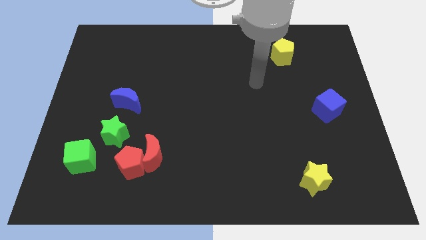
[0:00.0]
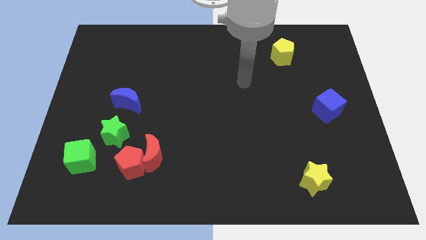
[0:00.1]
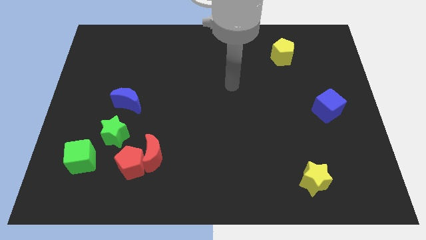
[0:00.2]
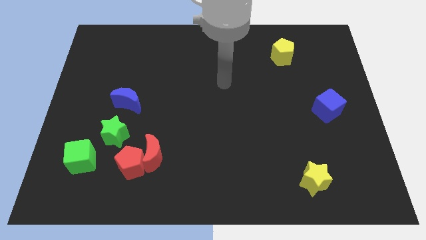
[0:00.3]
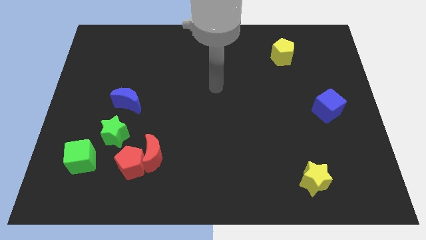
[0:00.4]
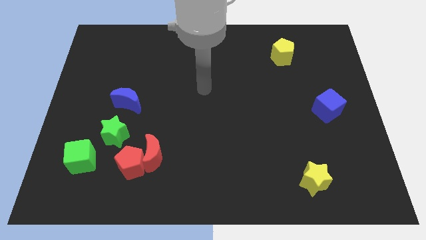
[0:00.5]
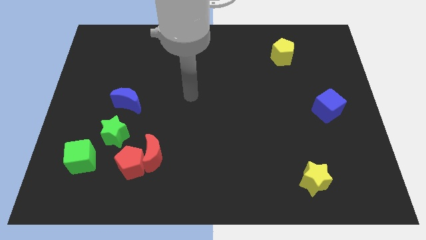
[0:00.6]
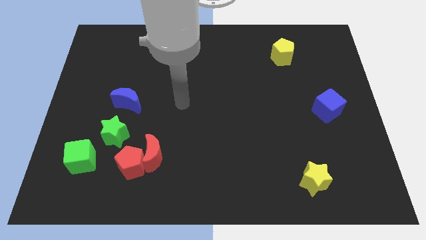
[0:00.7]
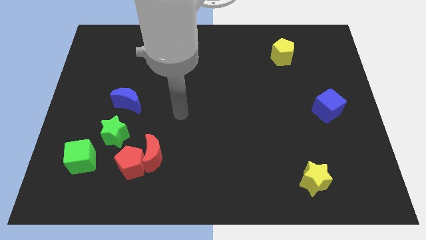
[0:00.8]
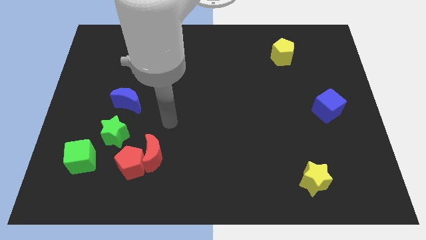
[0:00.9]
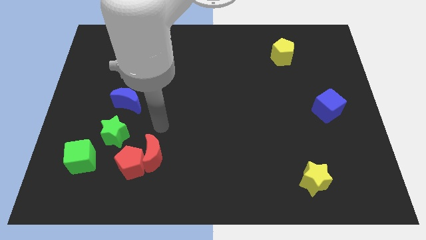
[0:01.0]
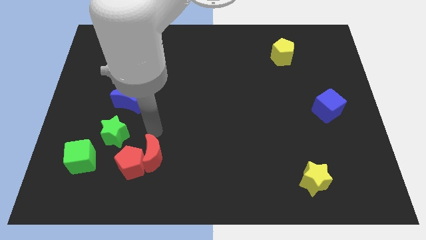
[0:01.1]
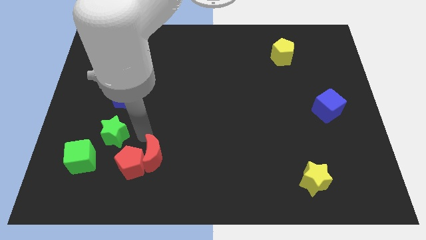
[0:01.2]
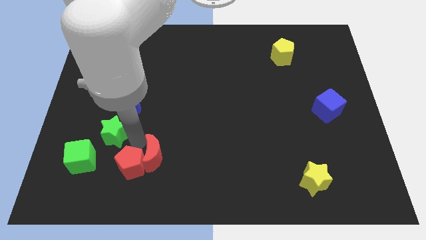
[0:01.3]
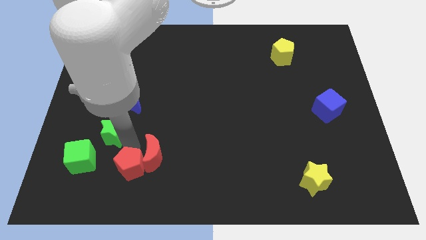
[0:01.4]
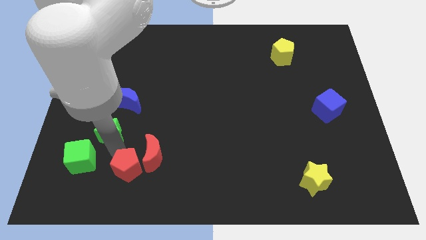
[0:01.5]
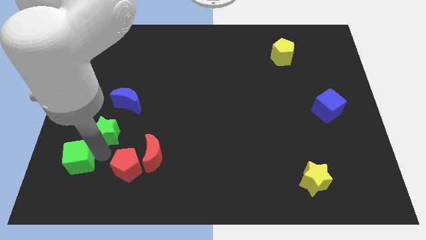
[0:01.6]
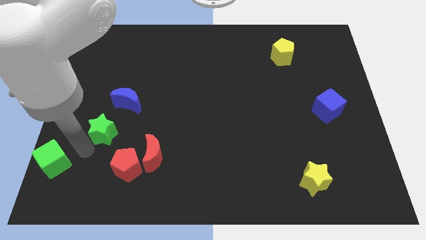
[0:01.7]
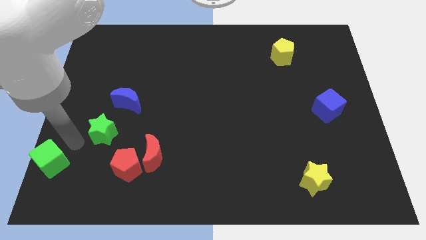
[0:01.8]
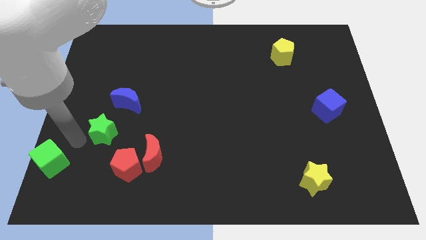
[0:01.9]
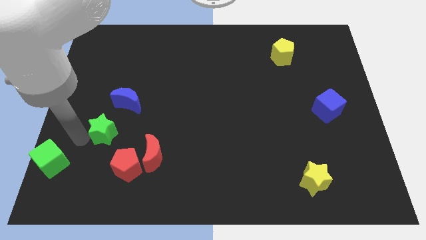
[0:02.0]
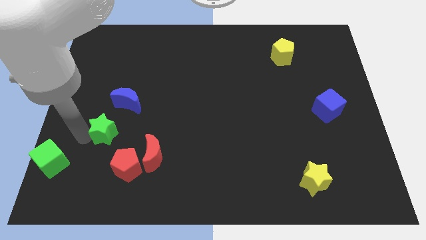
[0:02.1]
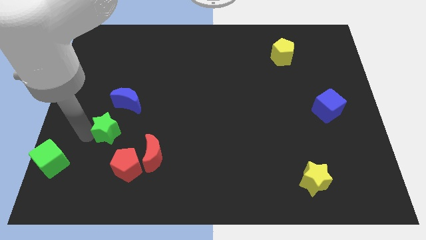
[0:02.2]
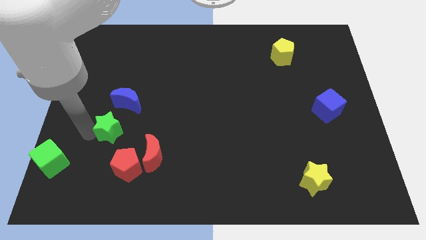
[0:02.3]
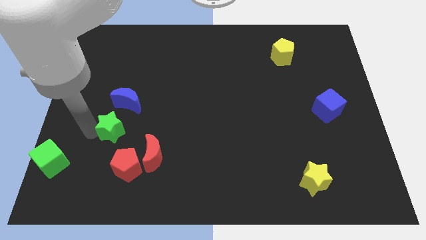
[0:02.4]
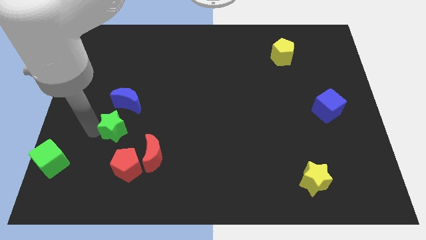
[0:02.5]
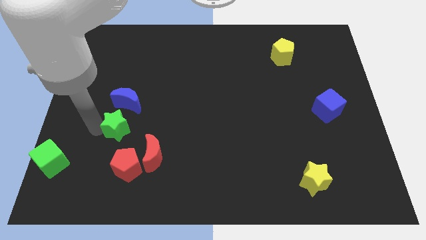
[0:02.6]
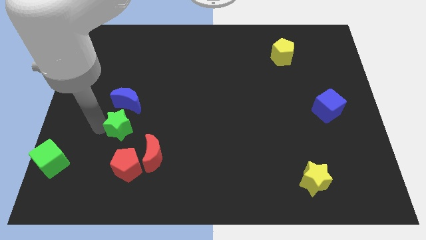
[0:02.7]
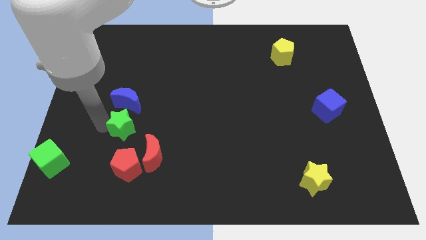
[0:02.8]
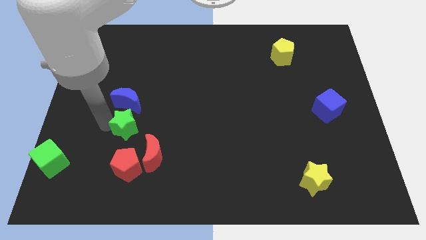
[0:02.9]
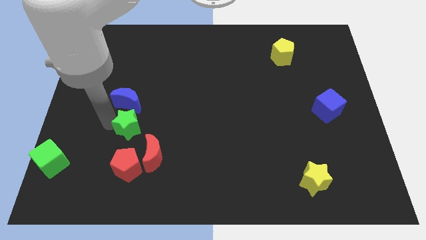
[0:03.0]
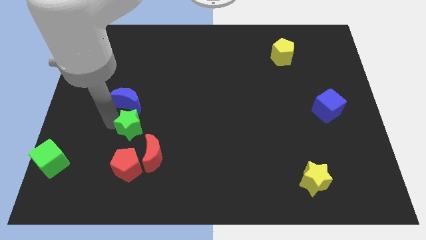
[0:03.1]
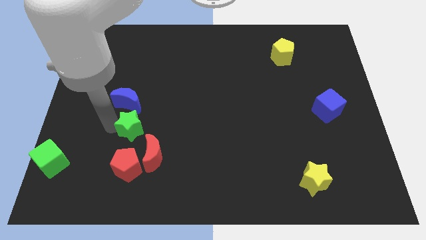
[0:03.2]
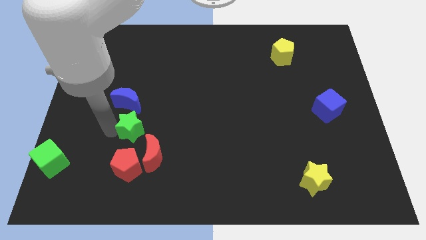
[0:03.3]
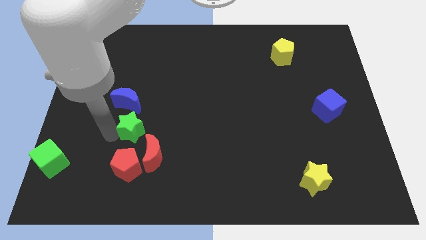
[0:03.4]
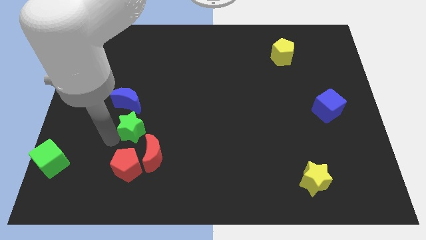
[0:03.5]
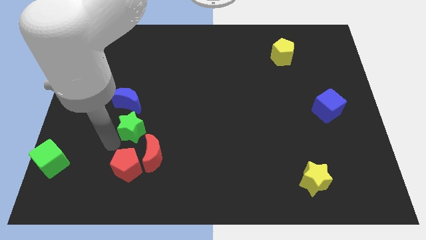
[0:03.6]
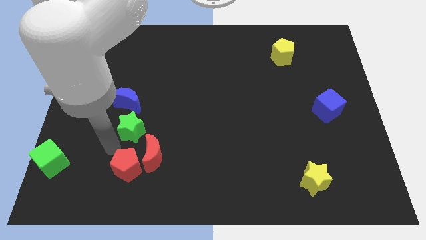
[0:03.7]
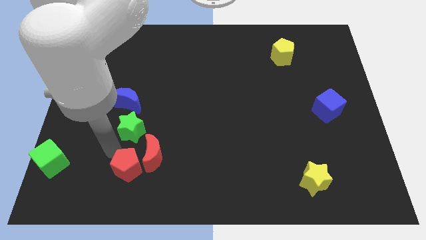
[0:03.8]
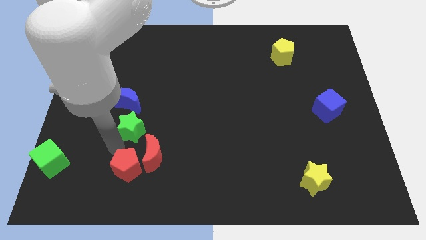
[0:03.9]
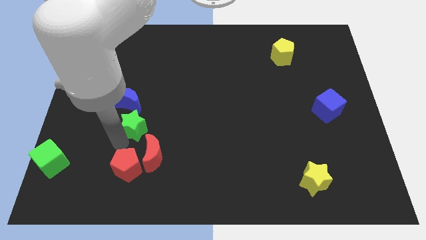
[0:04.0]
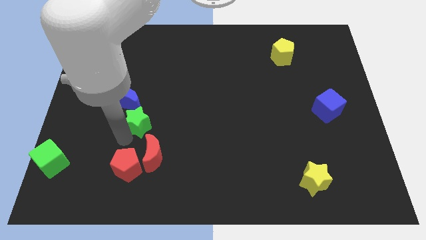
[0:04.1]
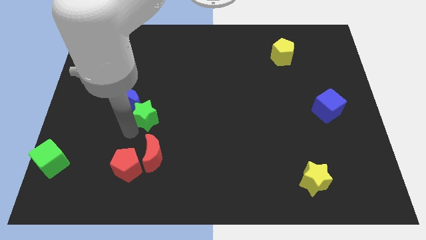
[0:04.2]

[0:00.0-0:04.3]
slightly push the green star up and to the right

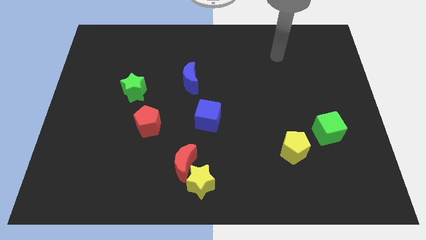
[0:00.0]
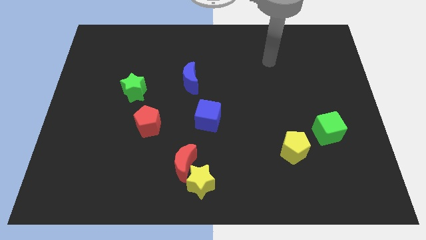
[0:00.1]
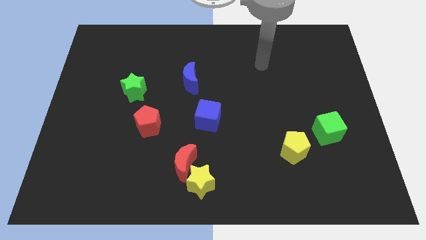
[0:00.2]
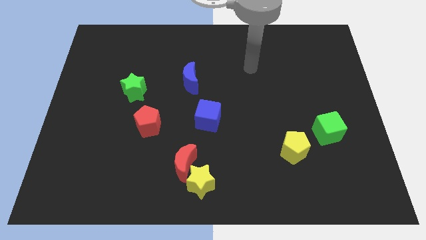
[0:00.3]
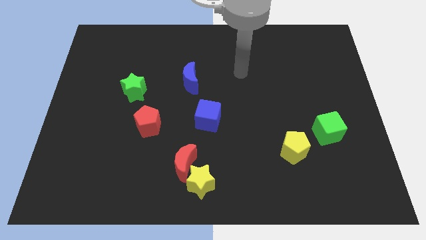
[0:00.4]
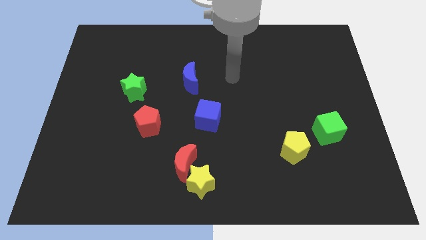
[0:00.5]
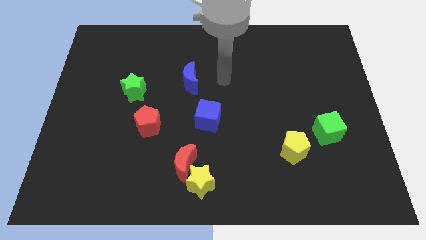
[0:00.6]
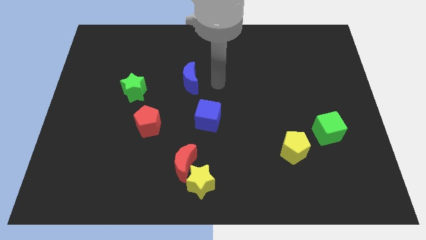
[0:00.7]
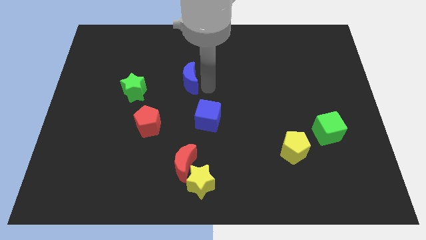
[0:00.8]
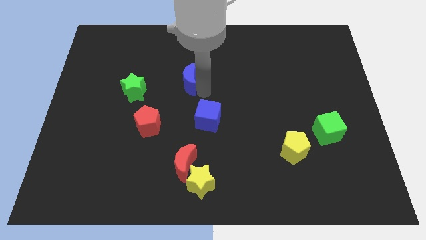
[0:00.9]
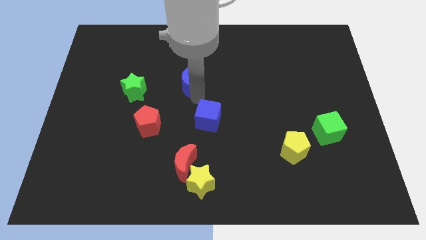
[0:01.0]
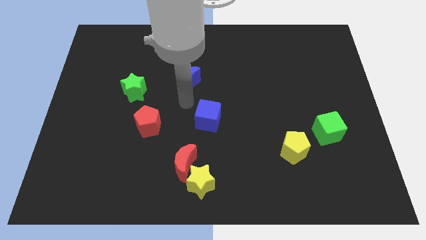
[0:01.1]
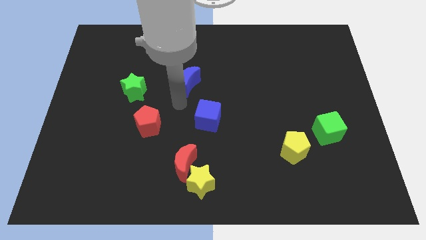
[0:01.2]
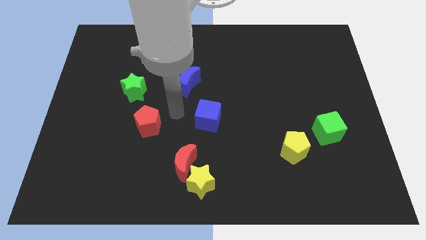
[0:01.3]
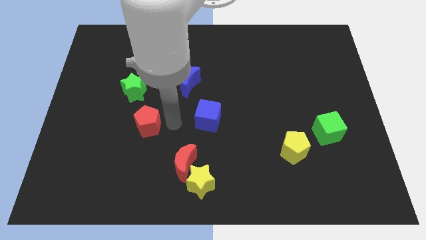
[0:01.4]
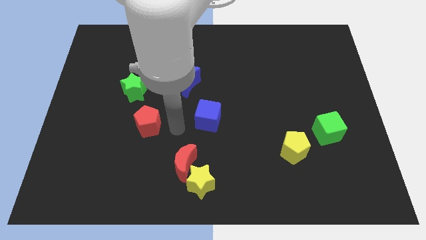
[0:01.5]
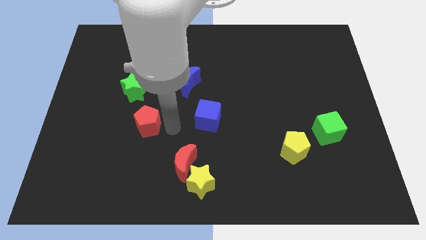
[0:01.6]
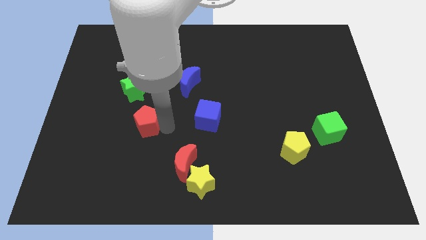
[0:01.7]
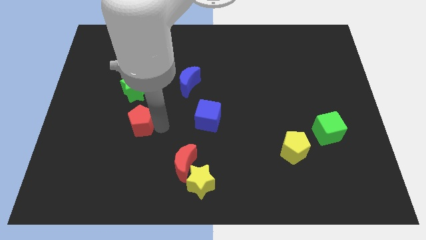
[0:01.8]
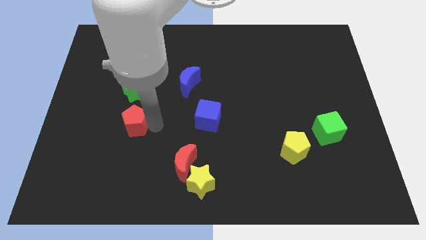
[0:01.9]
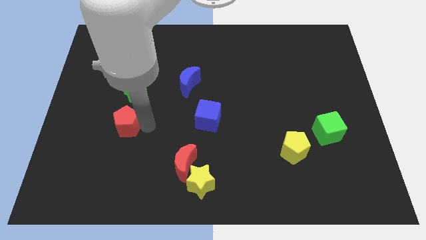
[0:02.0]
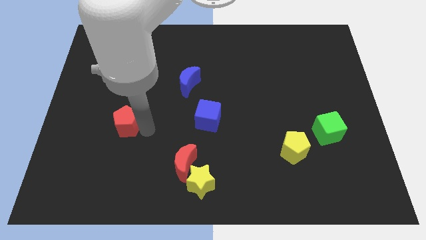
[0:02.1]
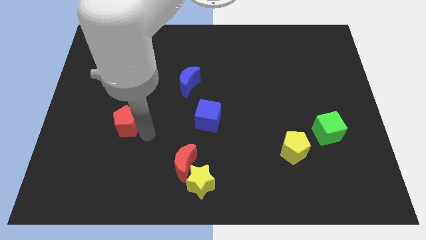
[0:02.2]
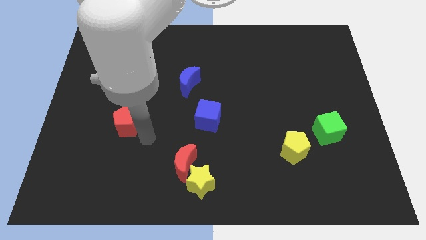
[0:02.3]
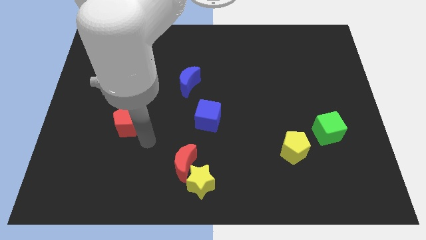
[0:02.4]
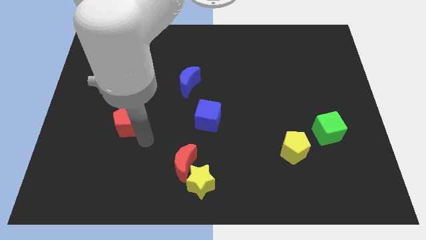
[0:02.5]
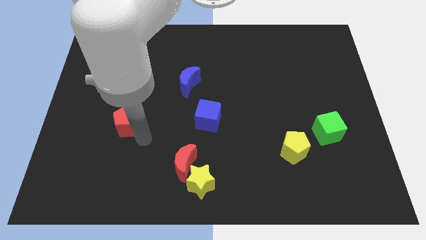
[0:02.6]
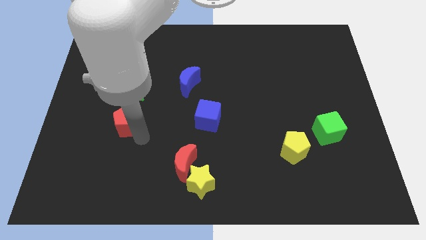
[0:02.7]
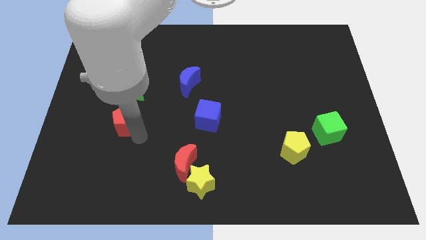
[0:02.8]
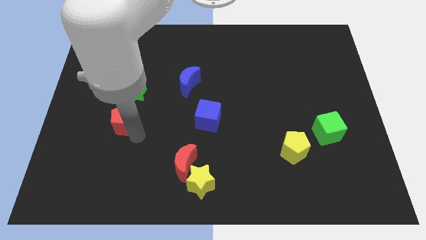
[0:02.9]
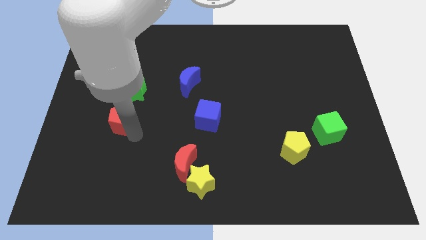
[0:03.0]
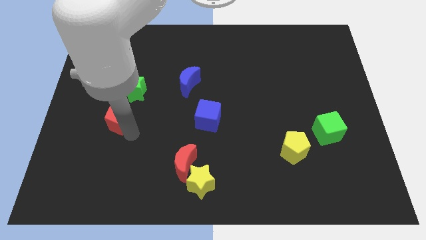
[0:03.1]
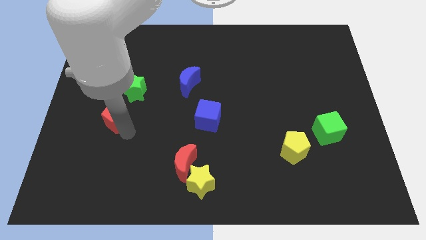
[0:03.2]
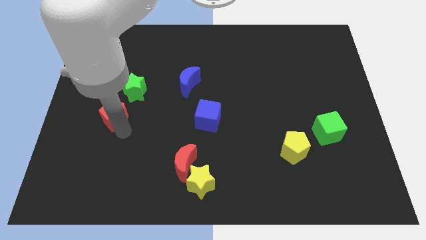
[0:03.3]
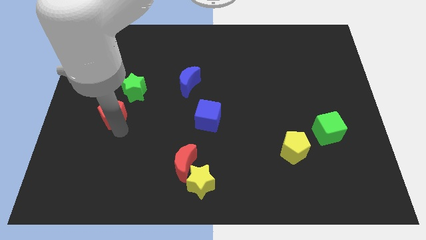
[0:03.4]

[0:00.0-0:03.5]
move the red pentagon upwards and to the left slightly
